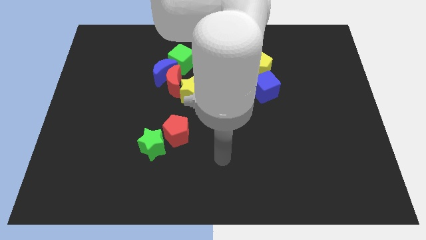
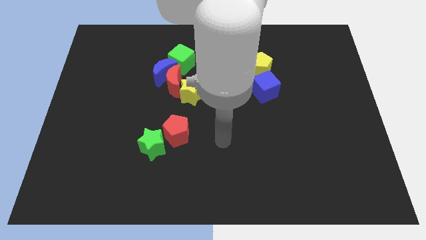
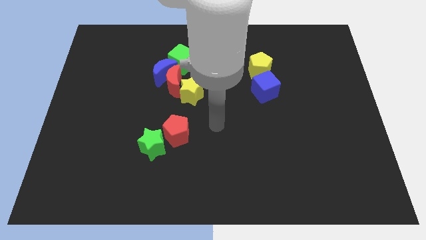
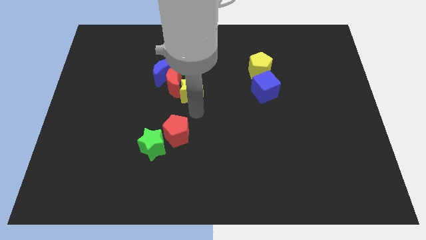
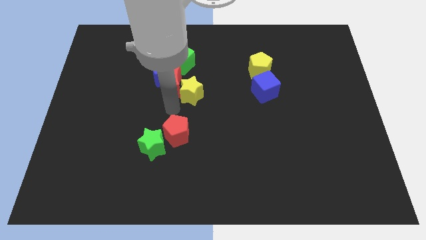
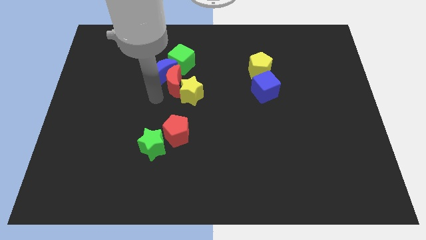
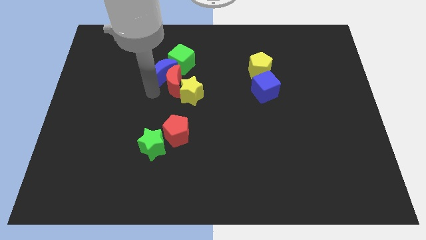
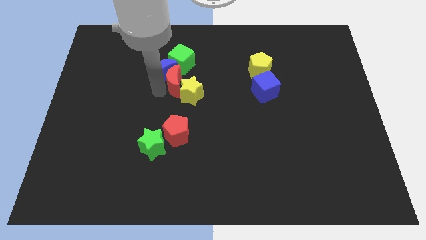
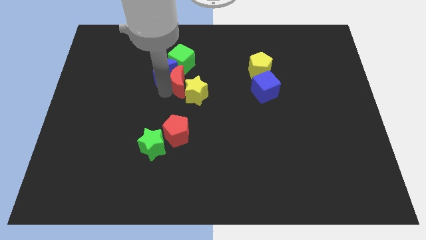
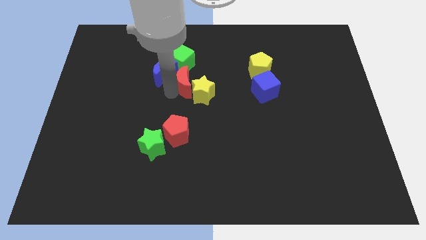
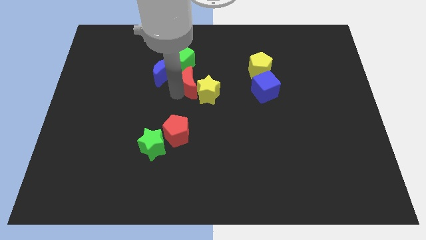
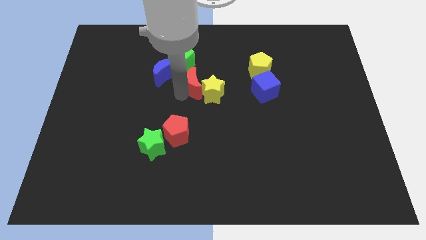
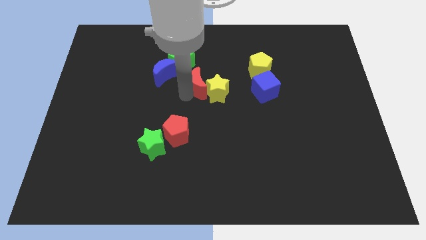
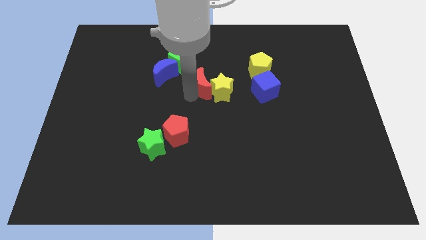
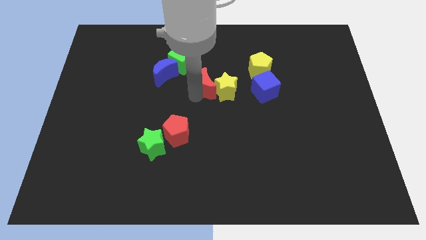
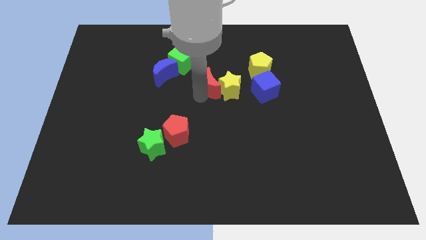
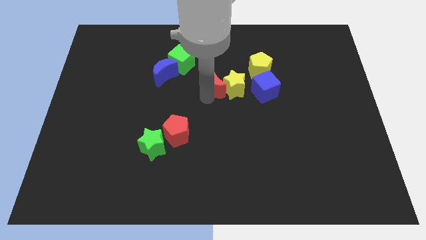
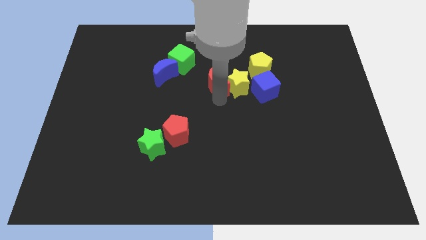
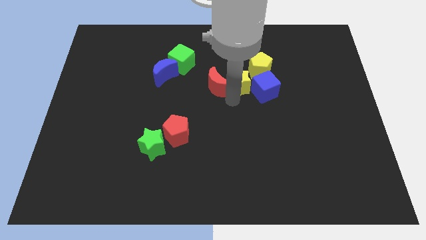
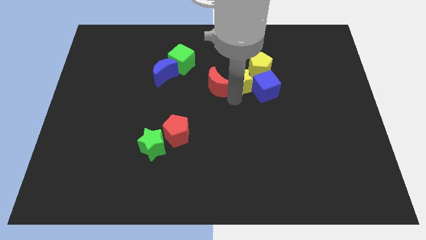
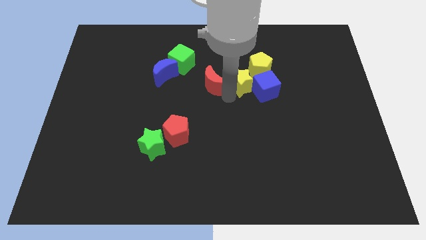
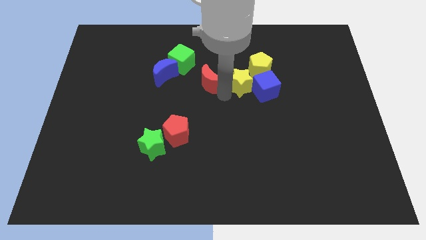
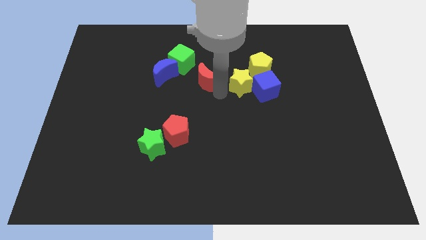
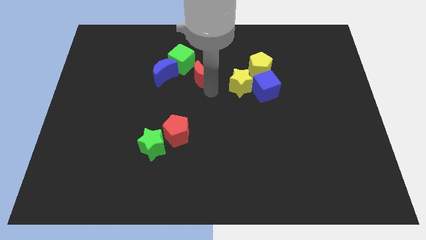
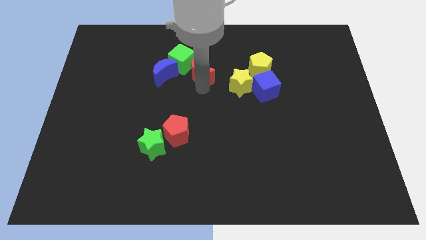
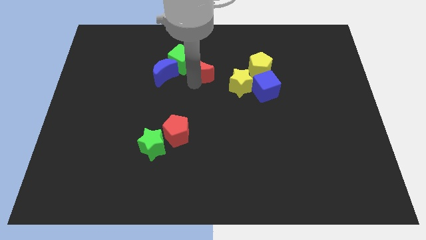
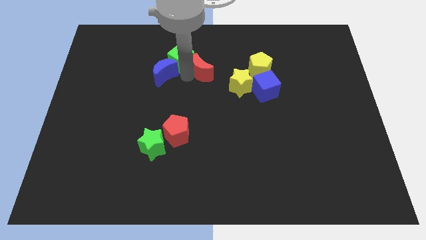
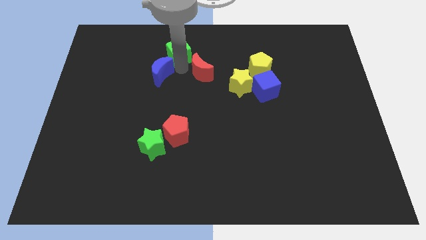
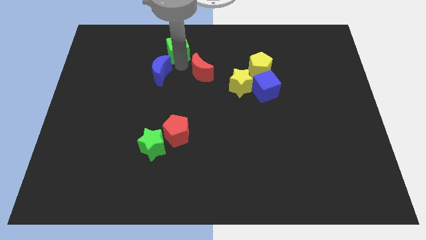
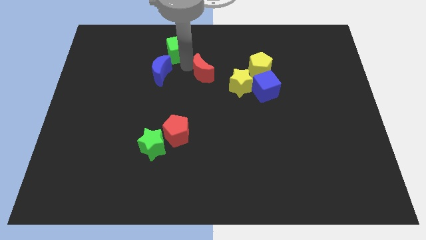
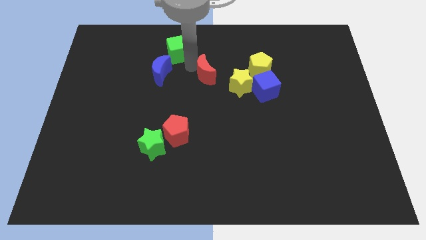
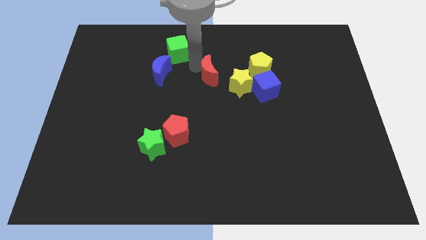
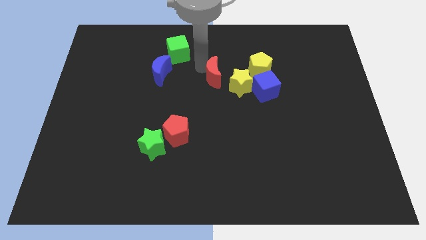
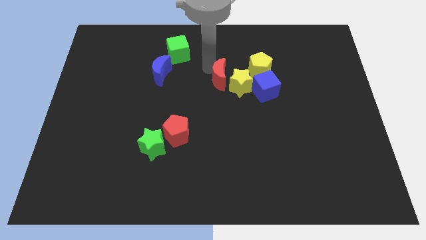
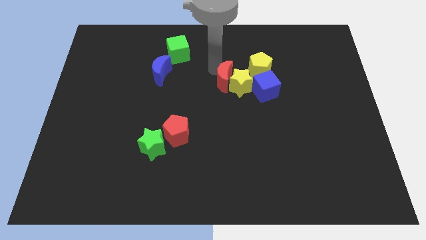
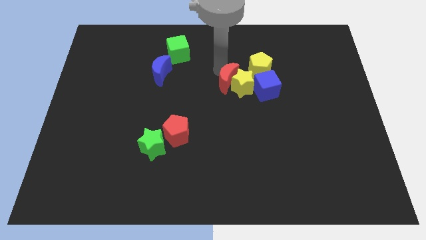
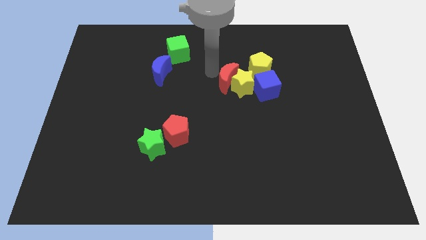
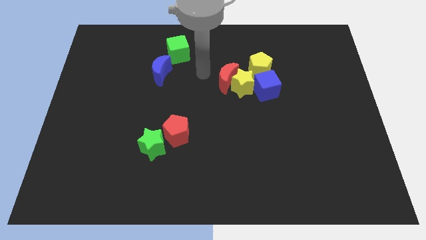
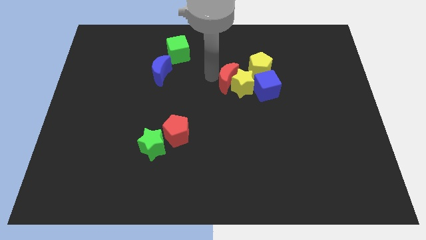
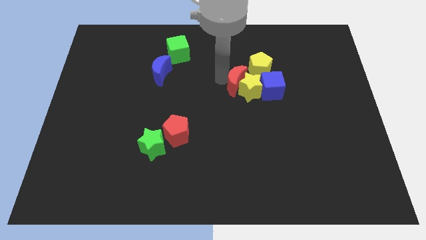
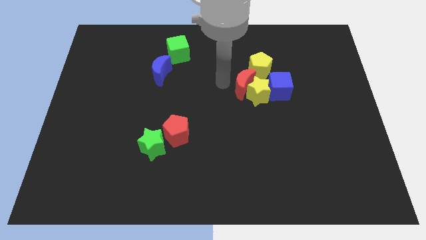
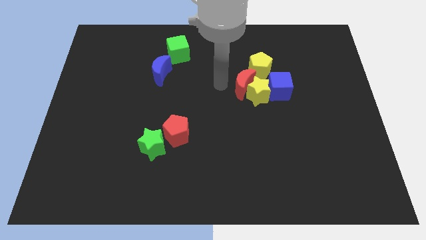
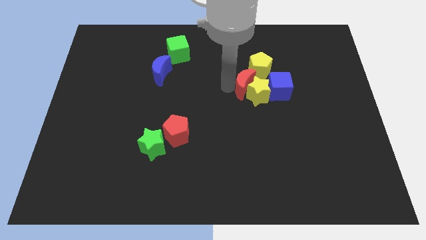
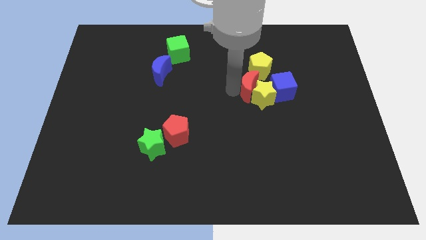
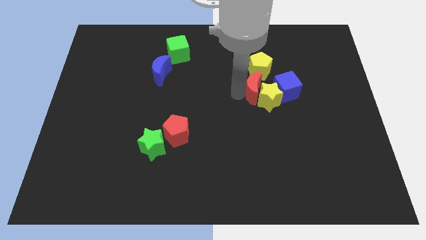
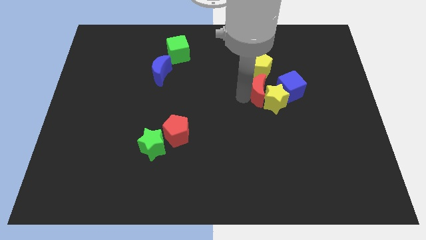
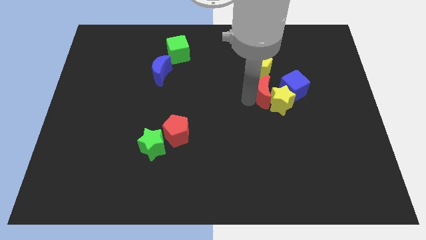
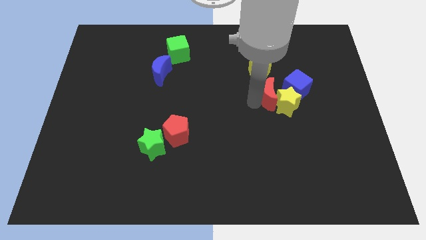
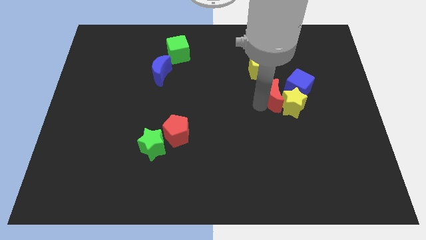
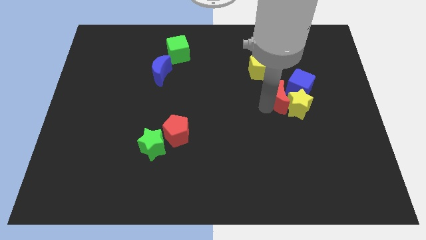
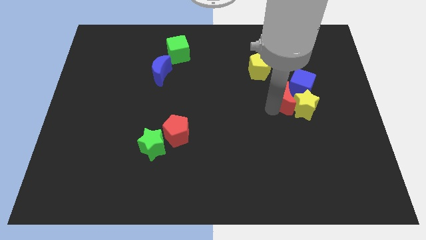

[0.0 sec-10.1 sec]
push the red moon next to the blue cube

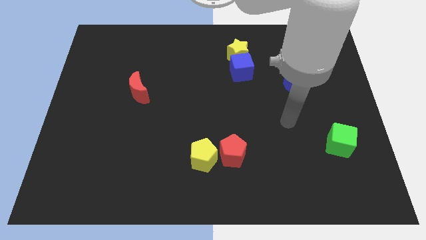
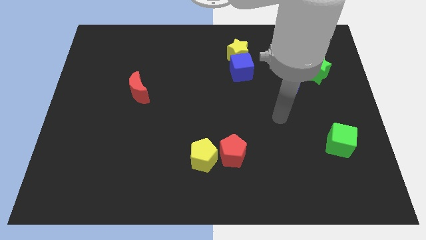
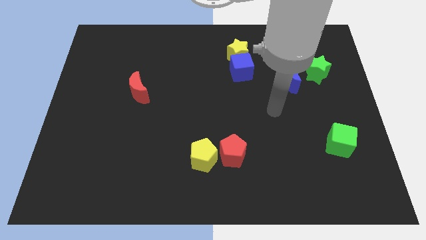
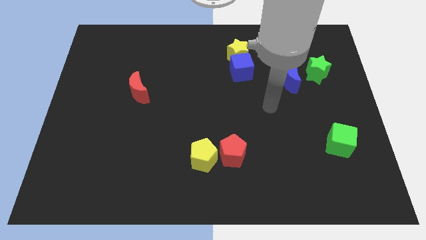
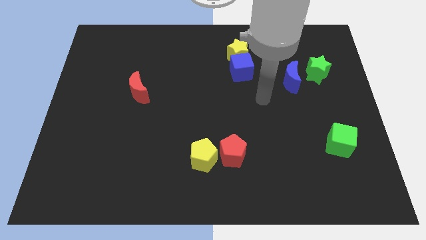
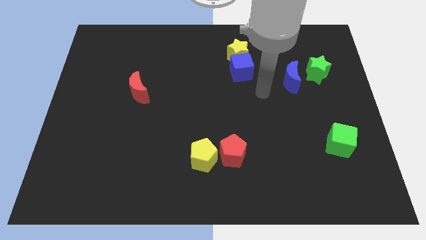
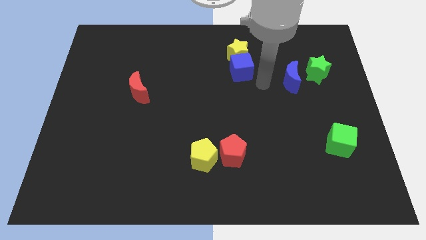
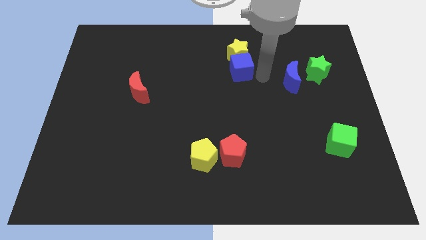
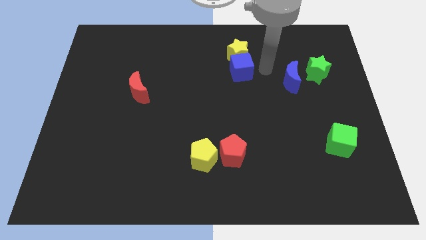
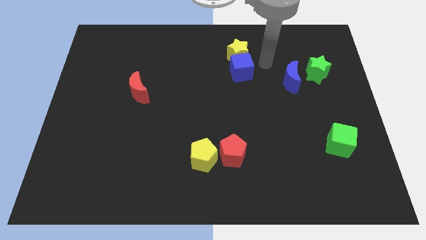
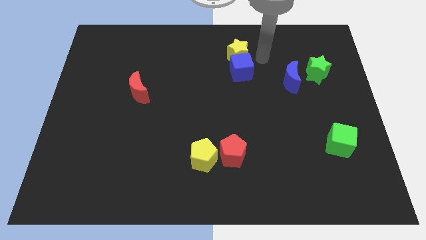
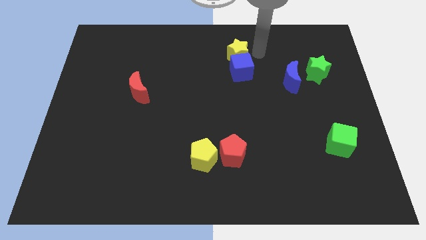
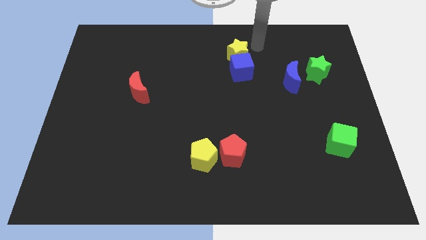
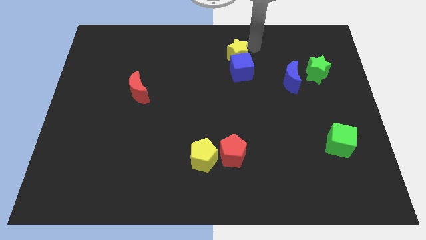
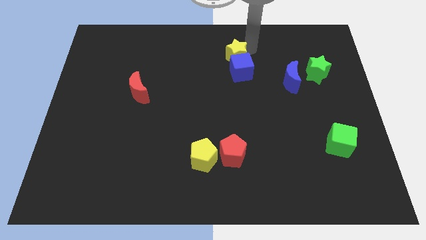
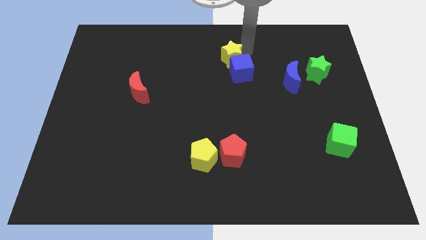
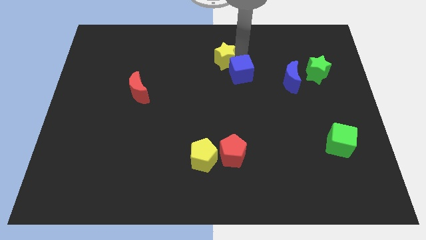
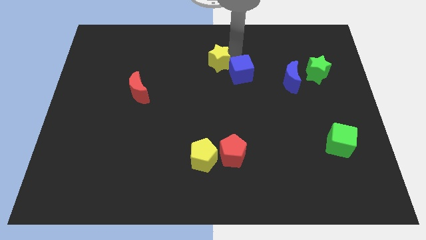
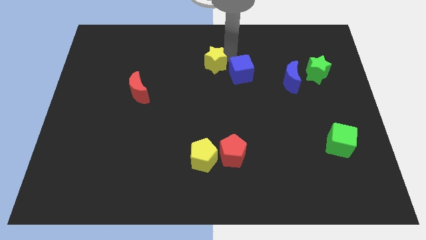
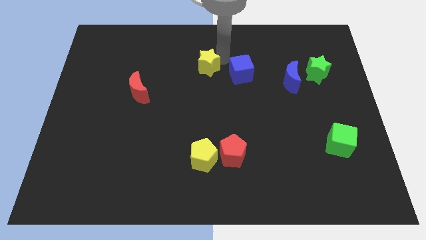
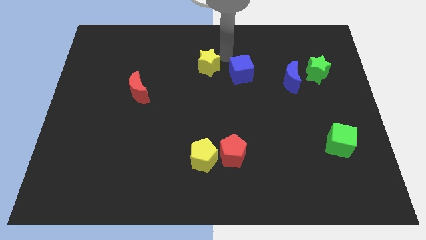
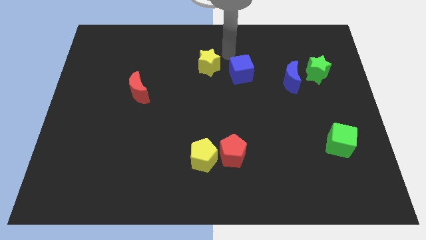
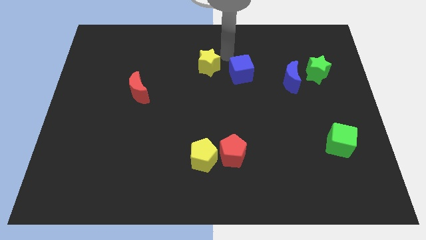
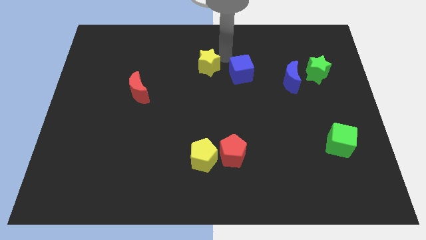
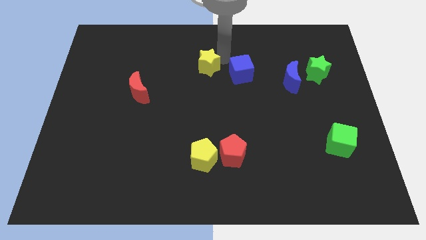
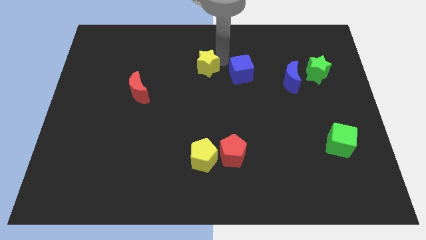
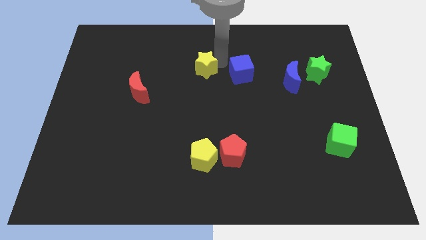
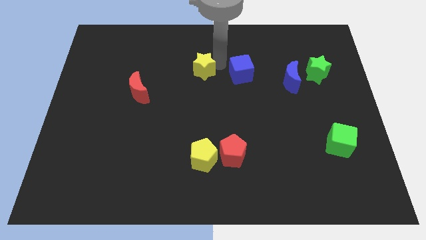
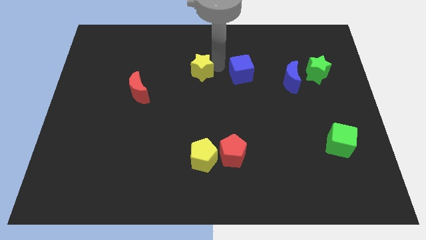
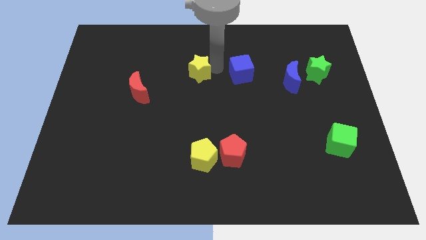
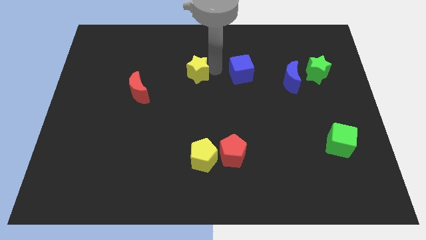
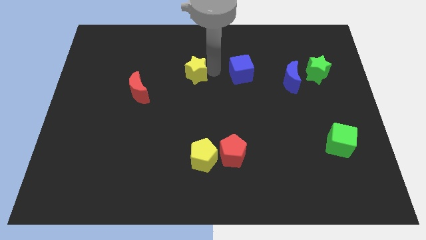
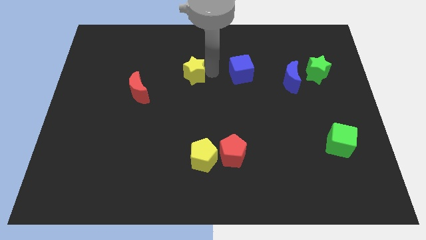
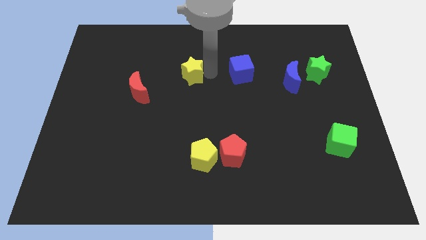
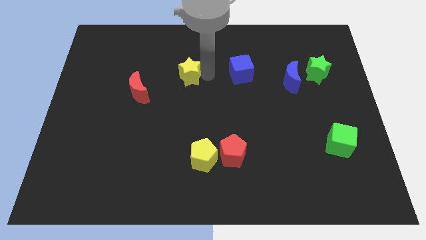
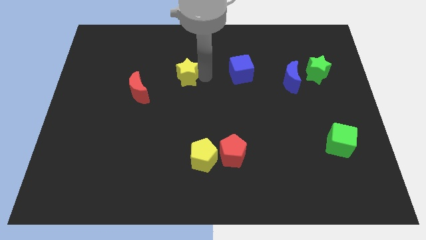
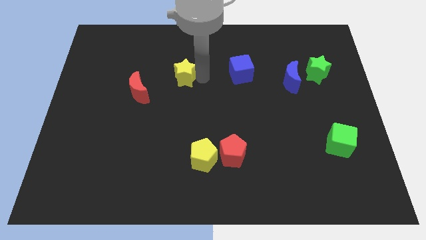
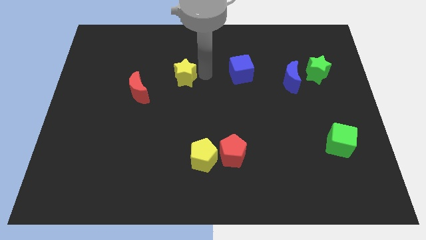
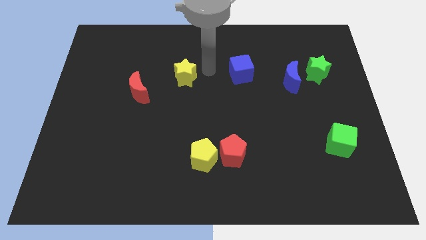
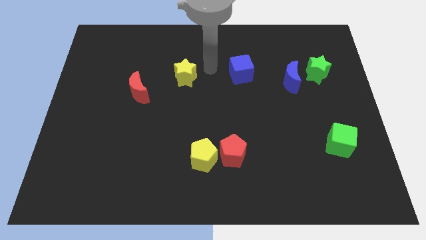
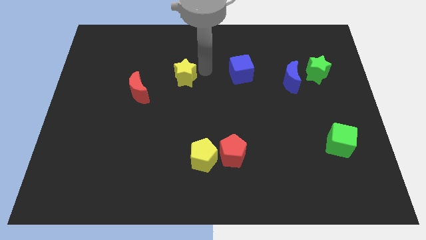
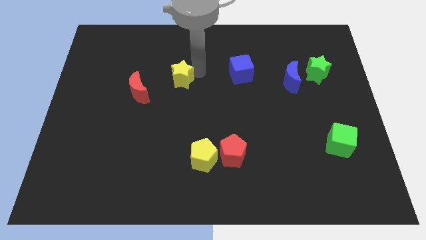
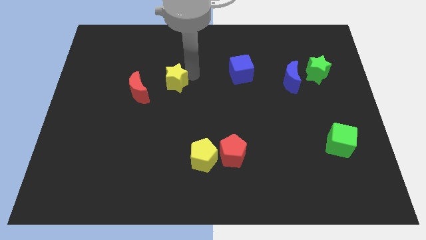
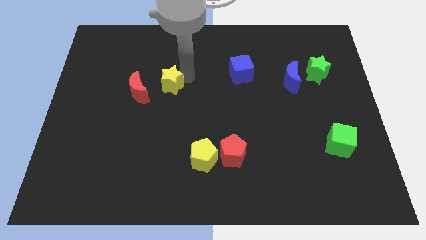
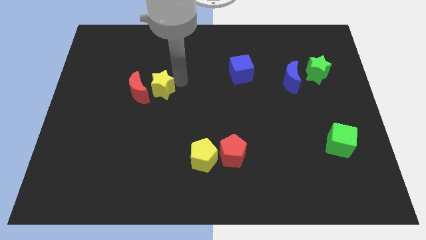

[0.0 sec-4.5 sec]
put the yellow star close to the red moon
